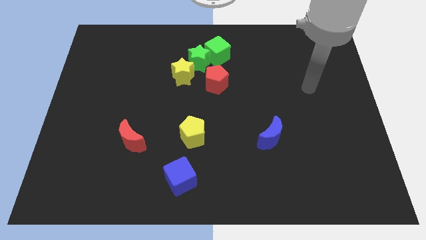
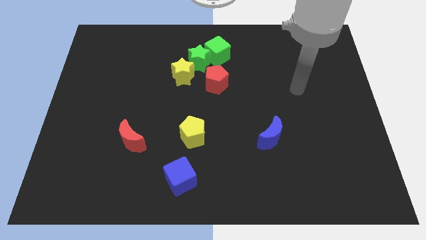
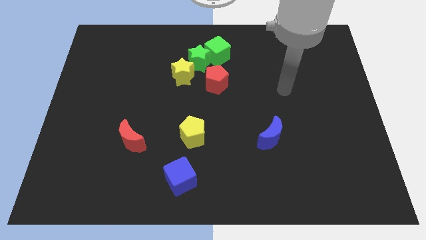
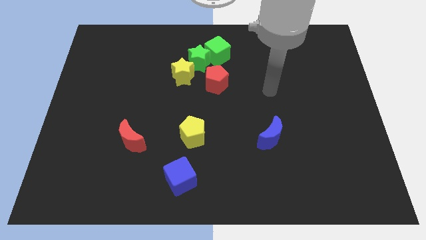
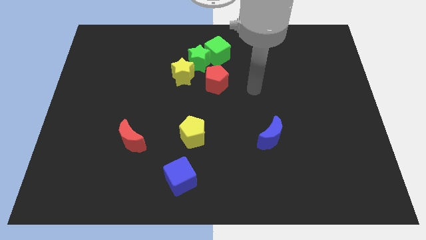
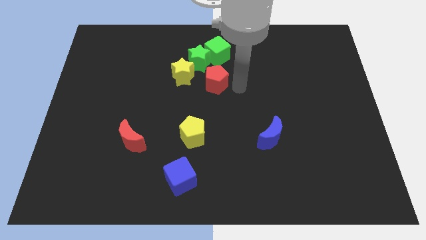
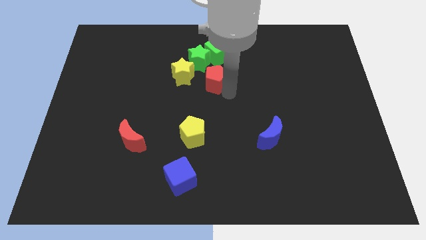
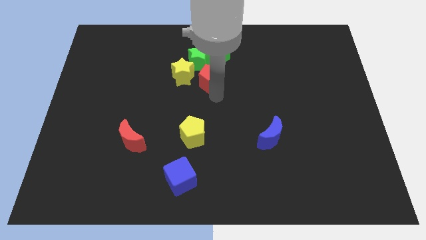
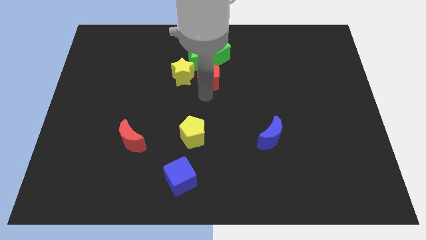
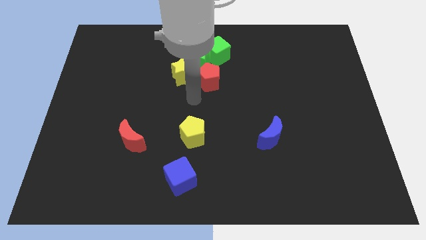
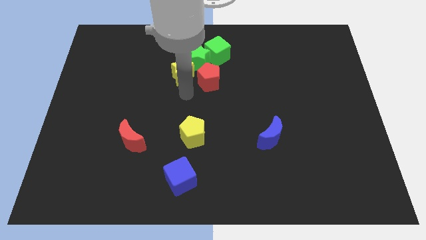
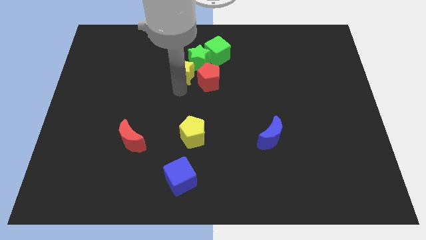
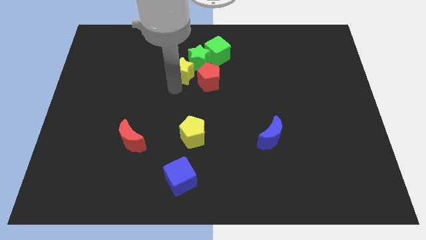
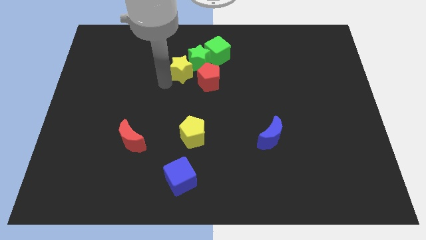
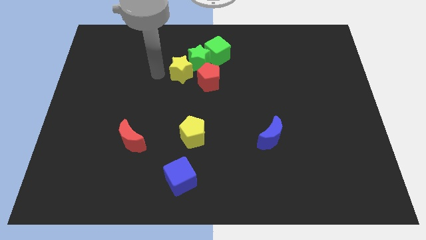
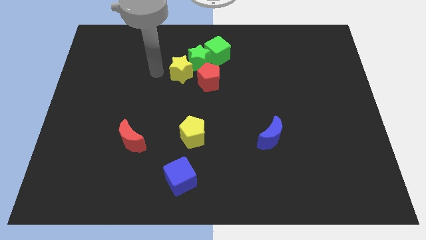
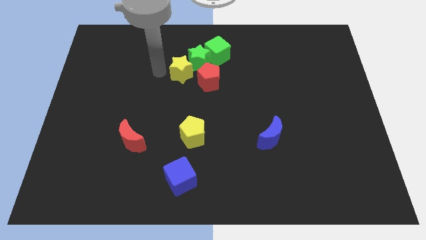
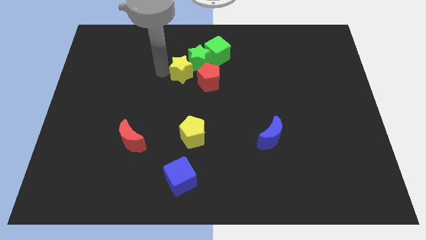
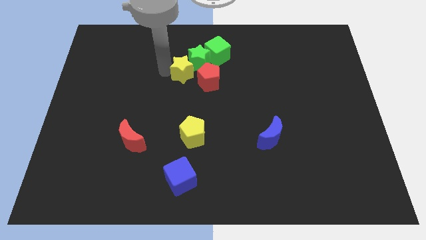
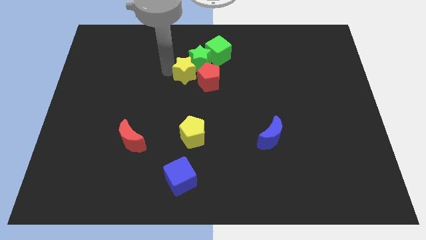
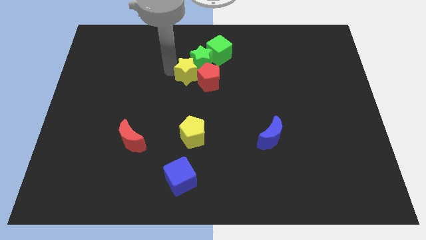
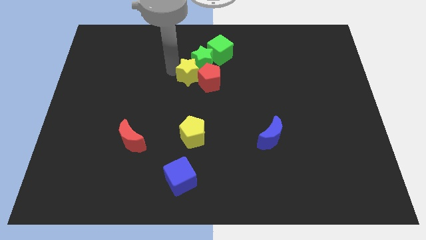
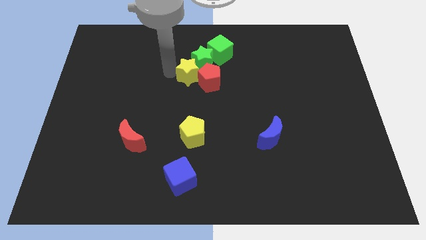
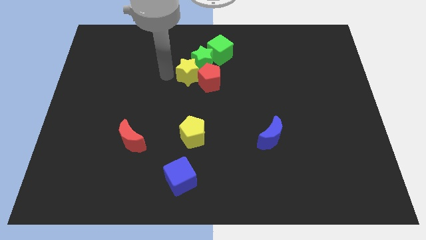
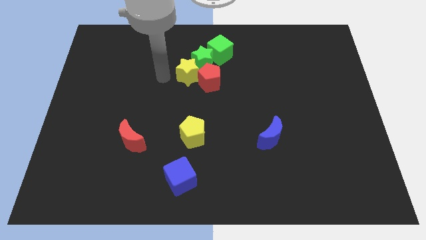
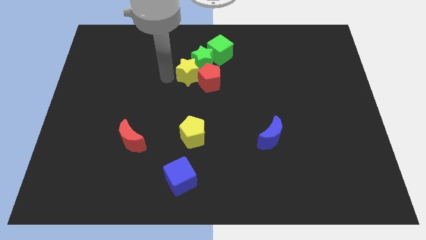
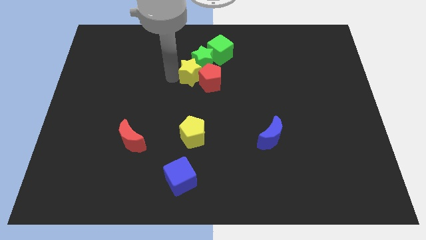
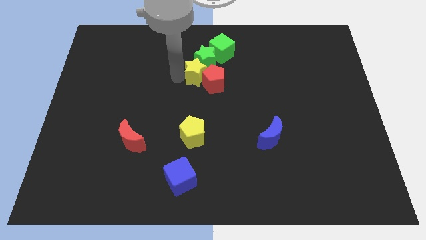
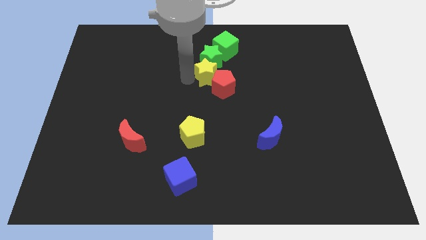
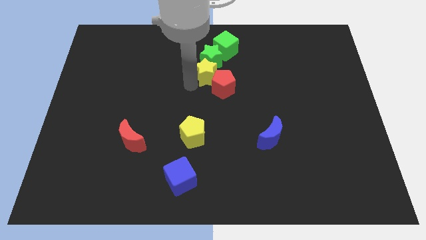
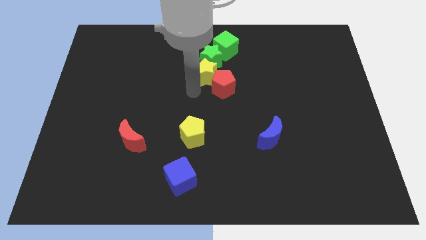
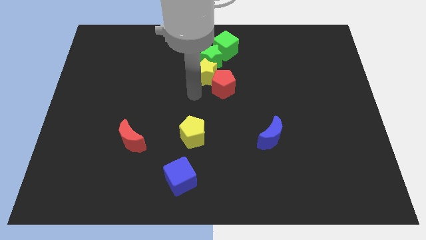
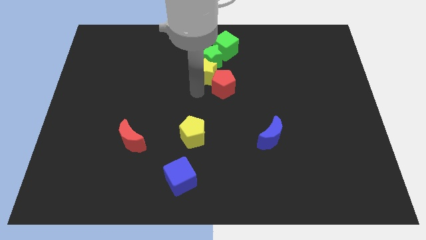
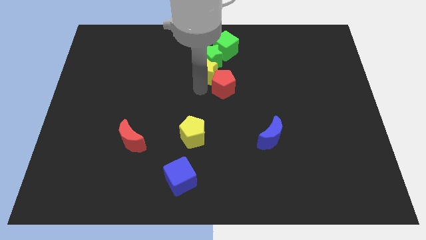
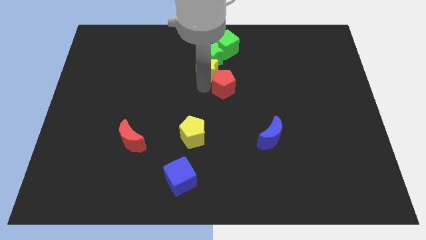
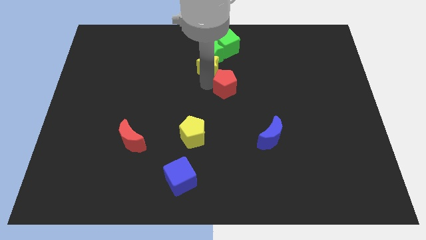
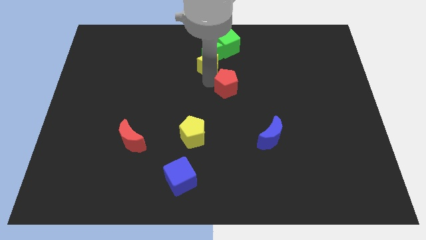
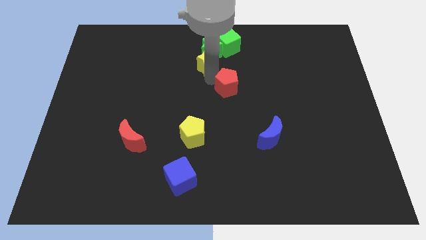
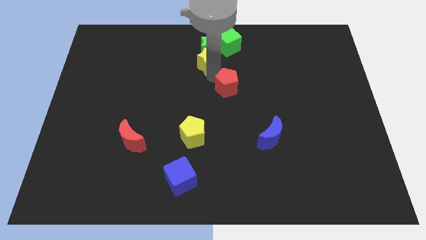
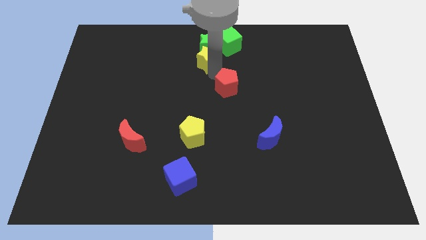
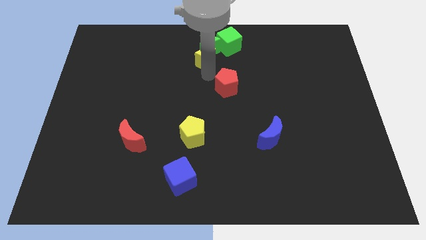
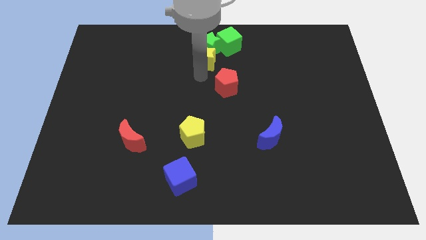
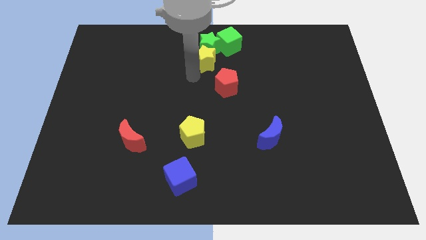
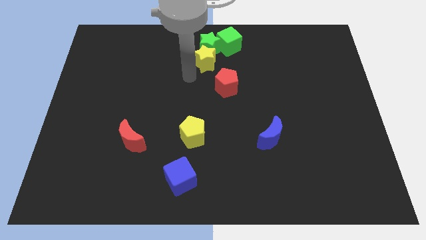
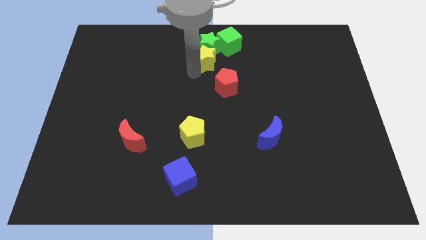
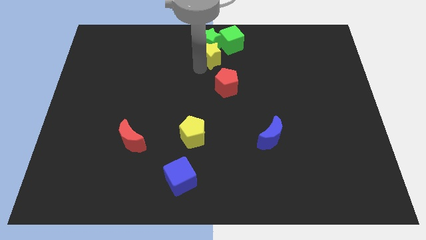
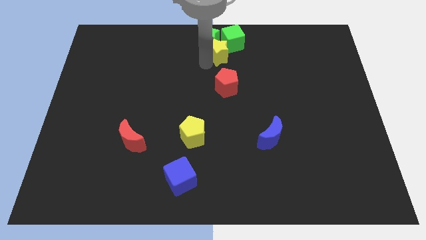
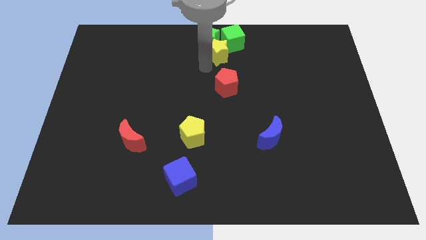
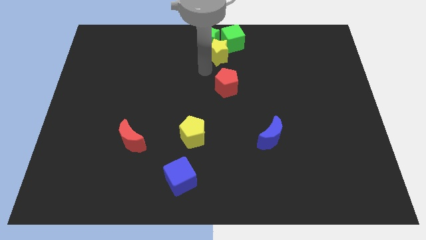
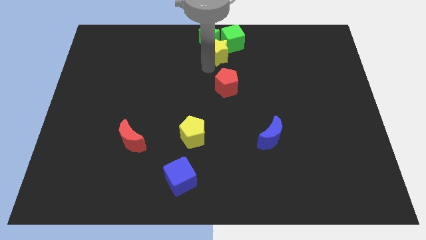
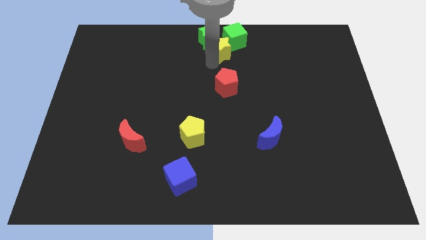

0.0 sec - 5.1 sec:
put the yellow star close to the green cube

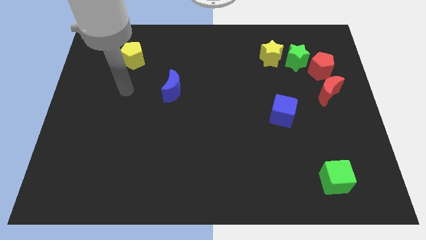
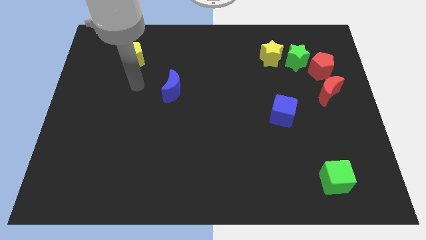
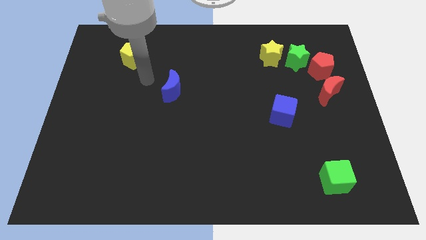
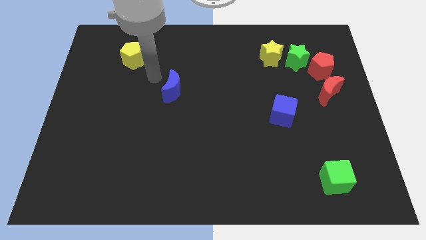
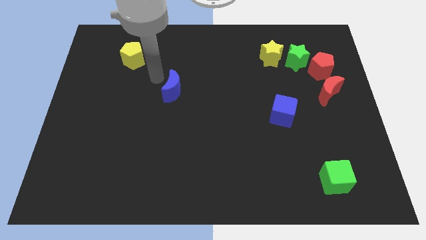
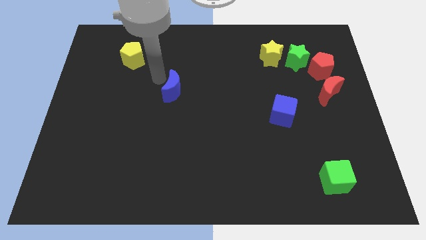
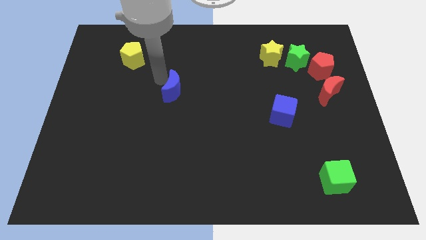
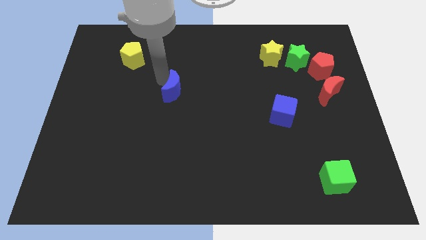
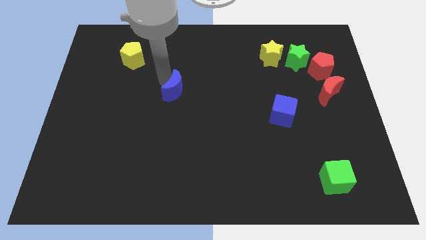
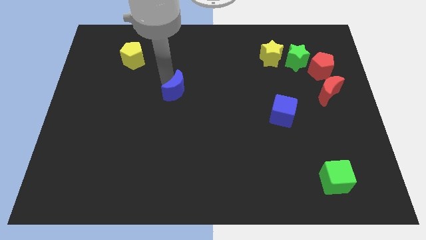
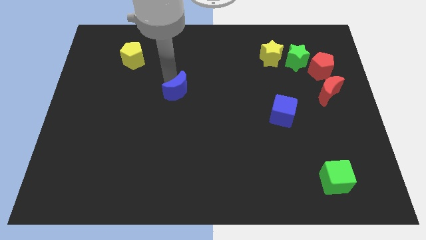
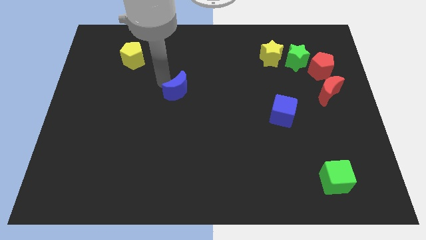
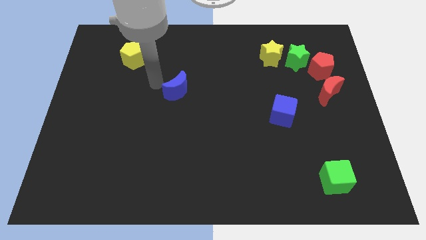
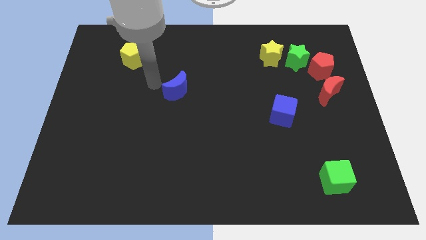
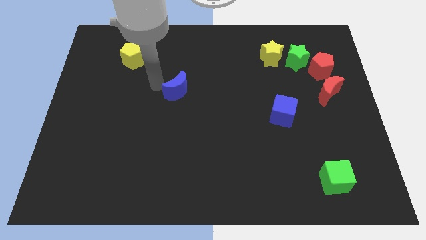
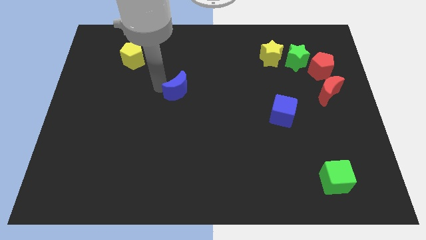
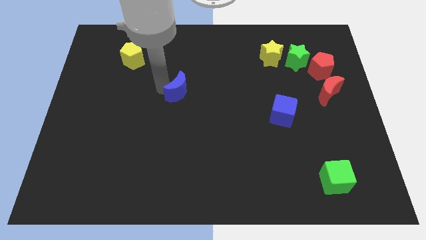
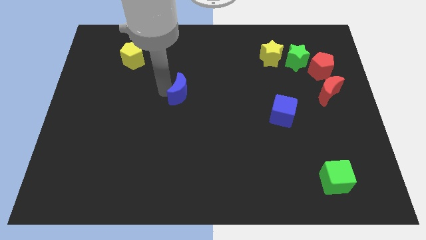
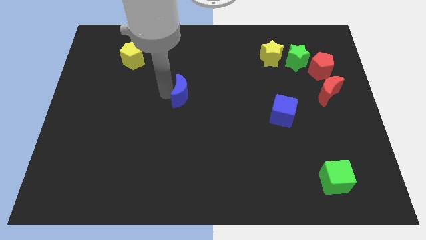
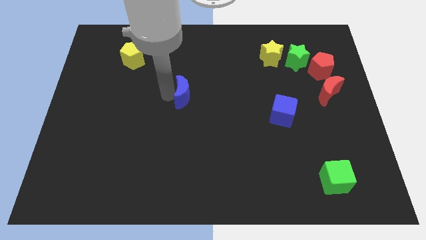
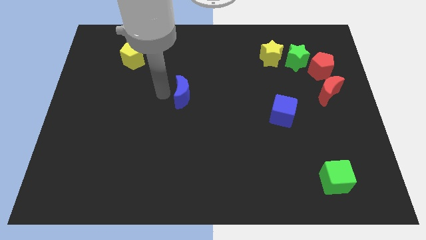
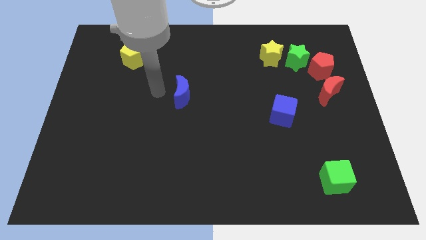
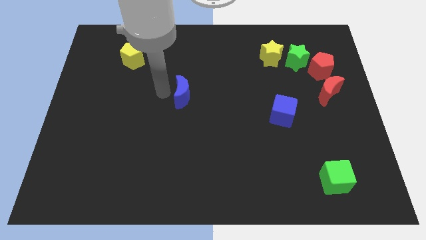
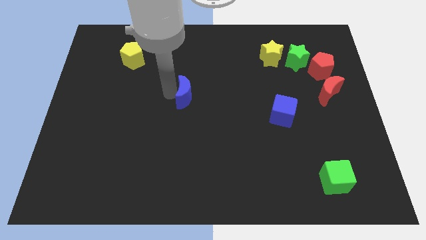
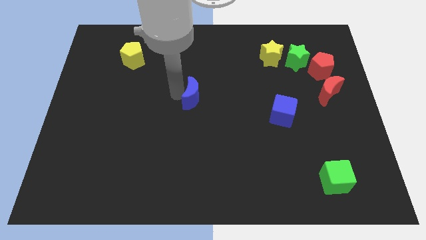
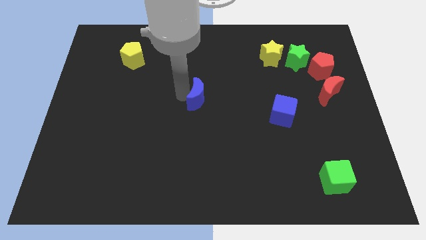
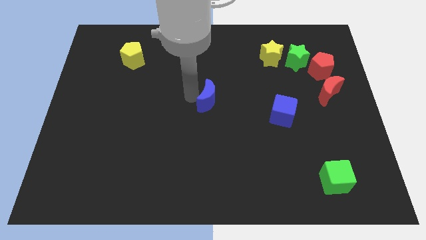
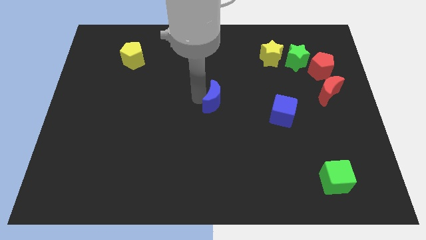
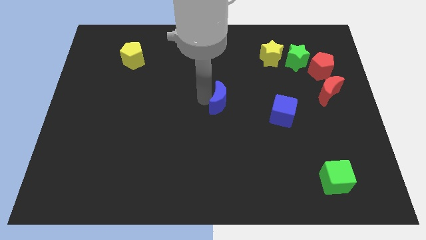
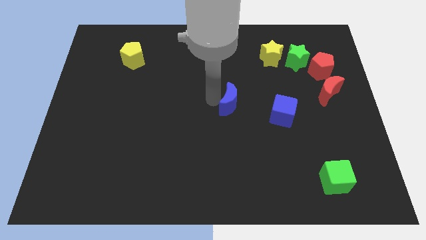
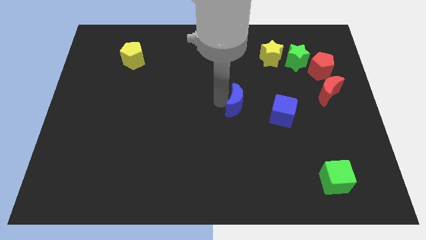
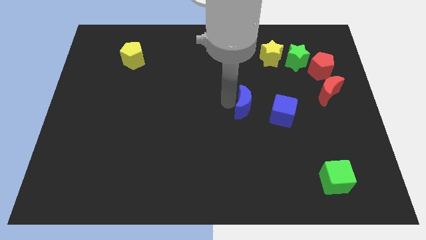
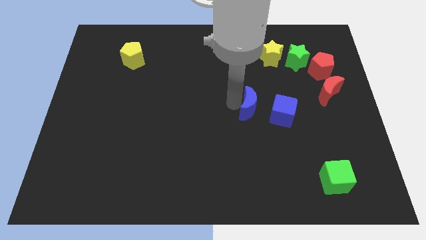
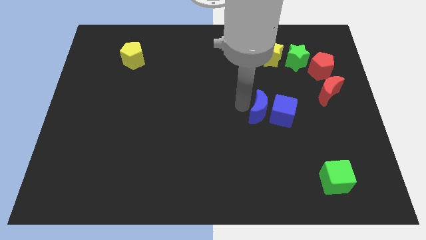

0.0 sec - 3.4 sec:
push the blue moon close to the blue cube
